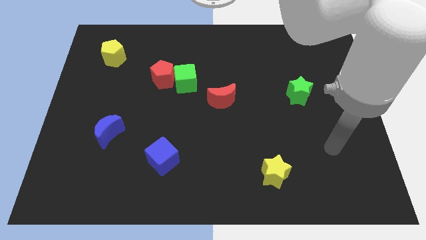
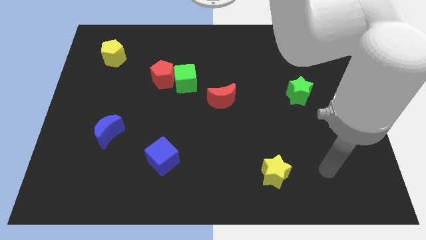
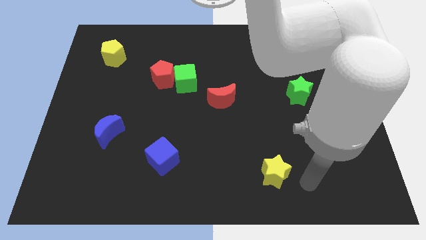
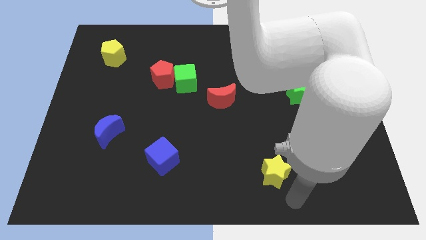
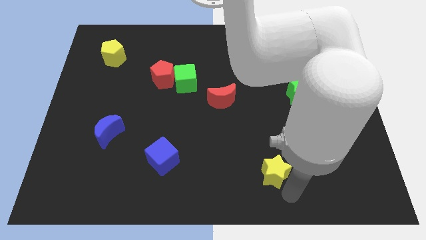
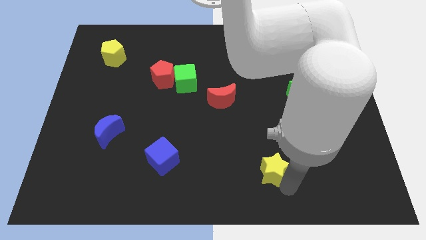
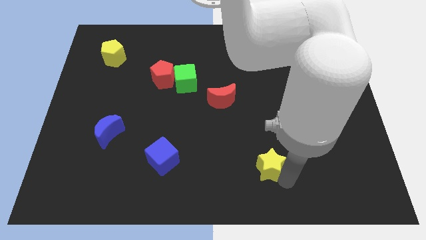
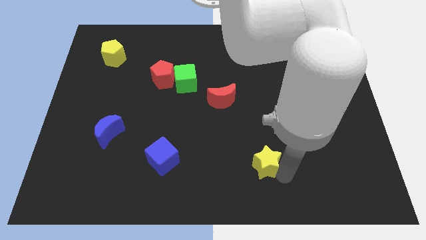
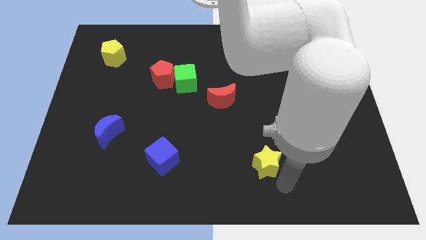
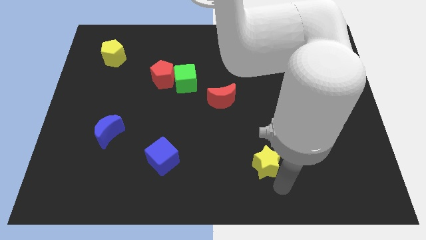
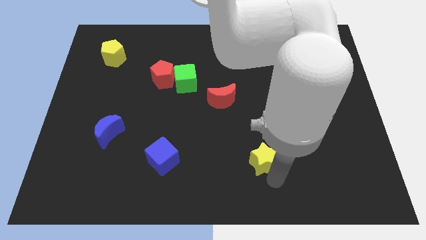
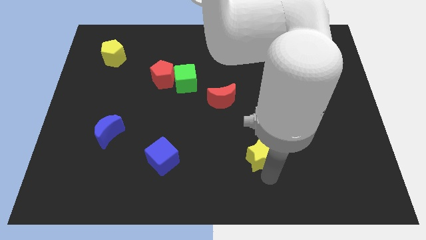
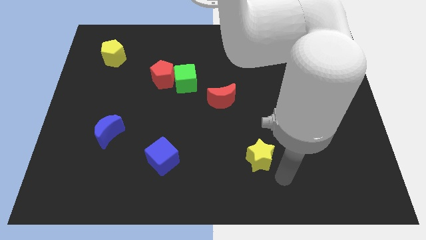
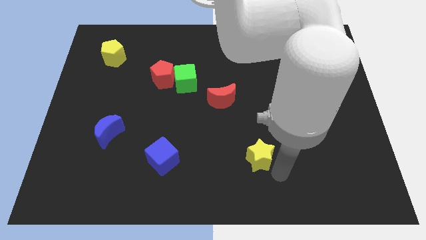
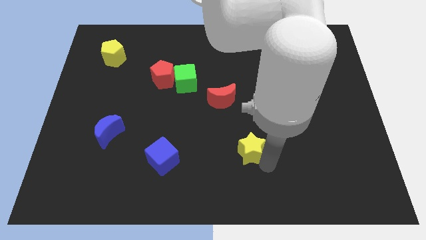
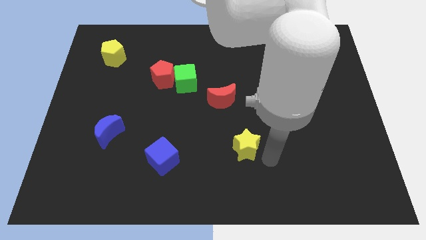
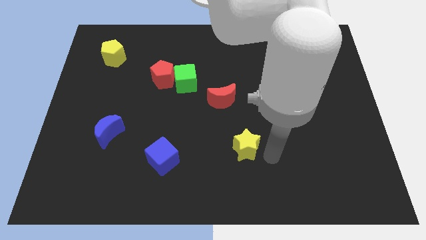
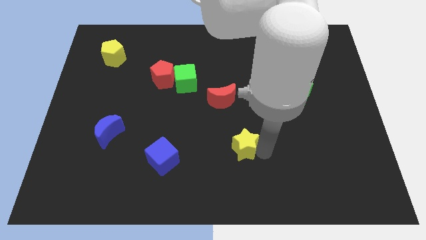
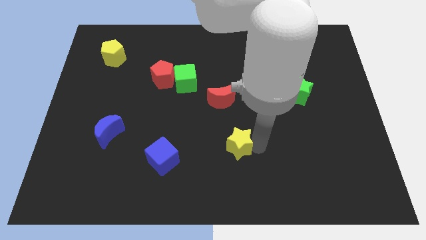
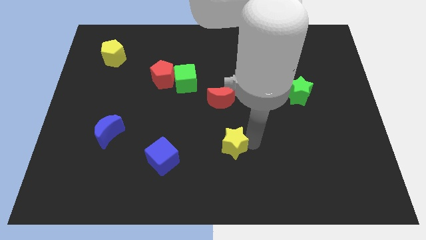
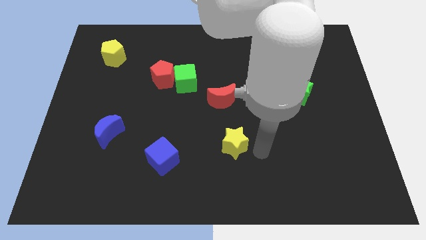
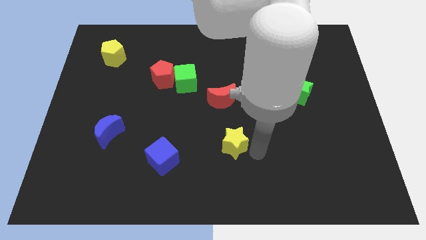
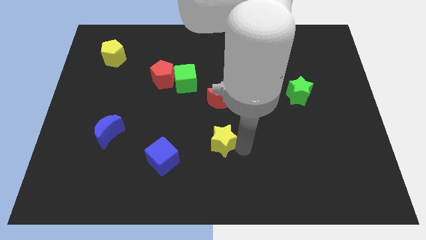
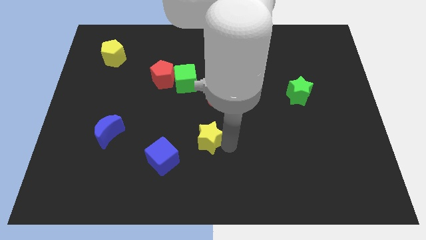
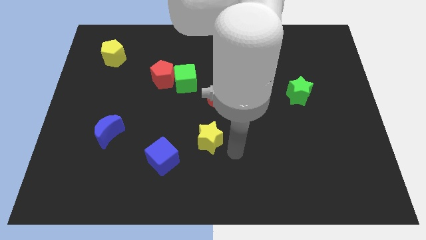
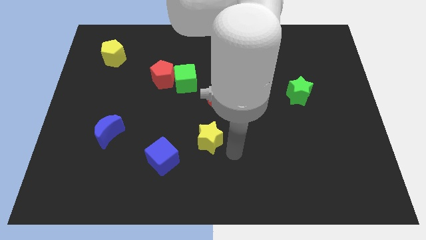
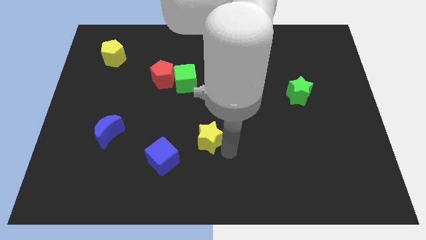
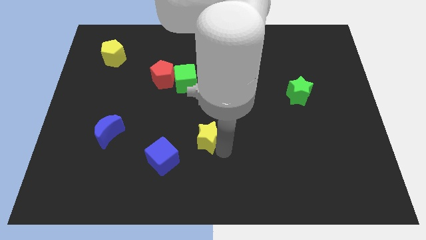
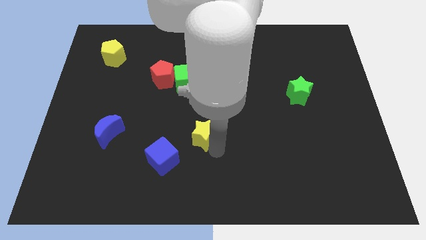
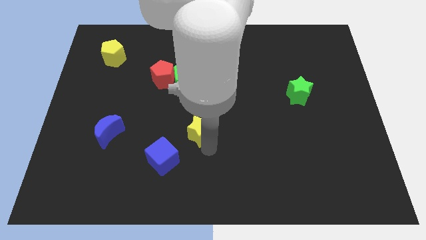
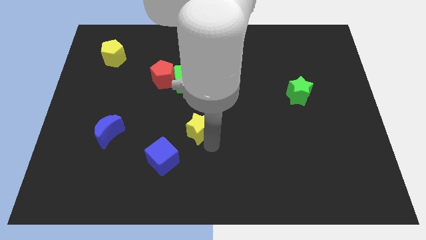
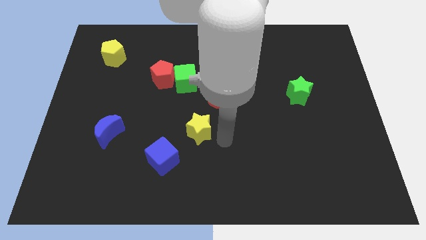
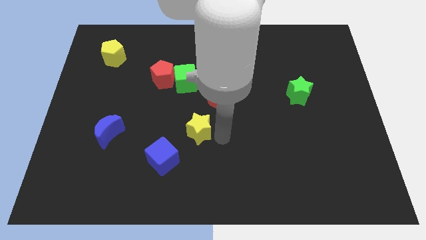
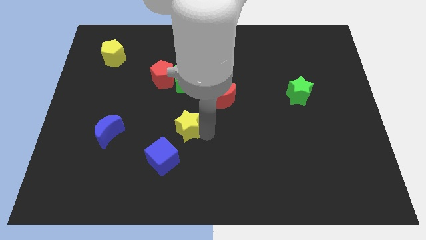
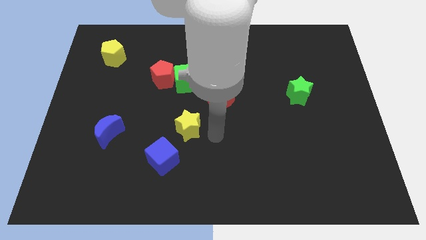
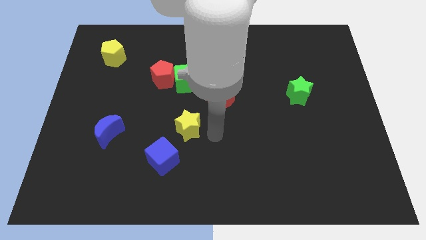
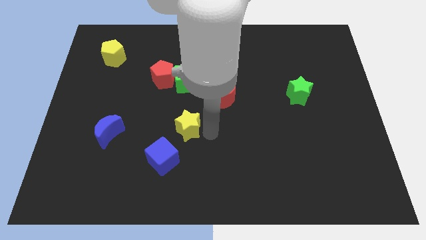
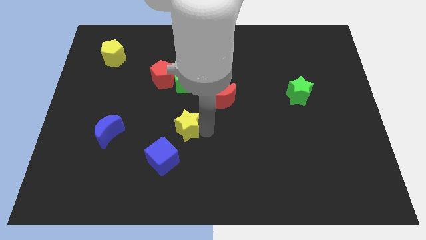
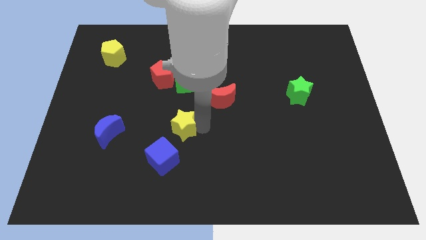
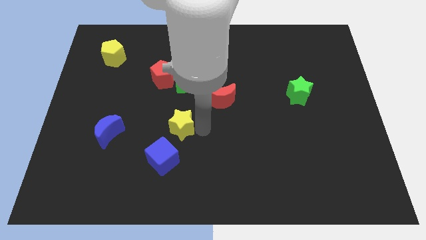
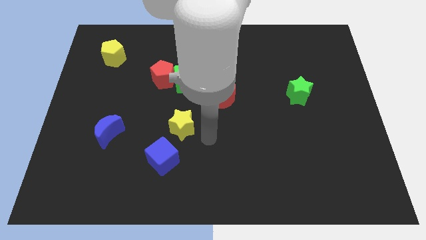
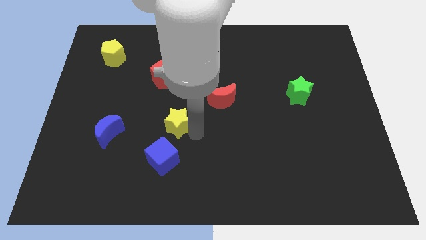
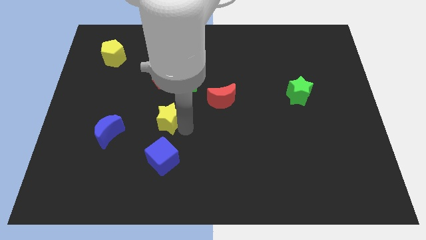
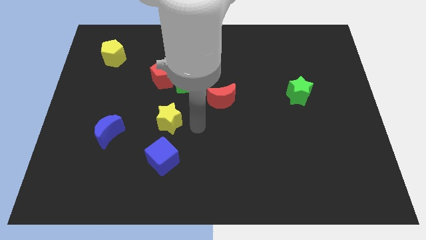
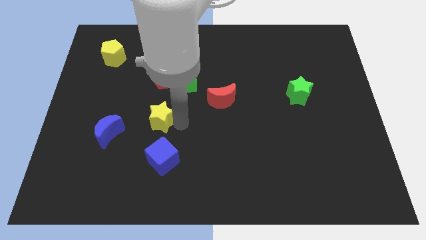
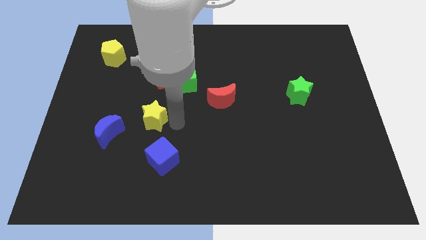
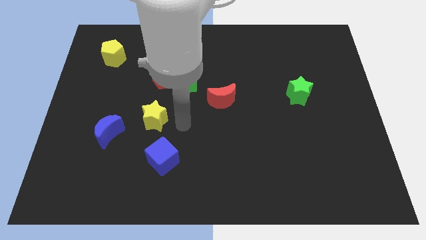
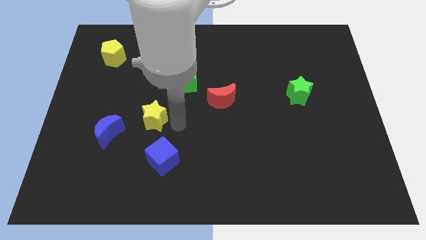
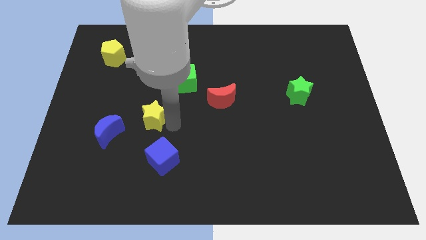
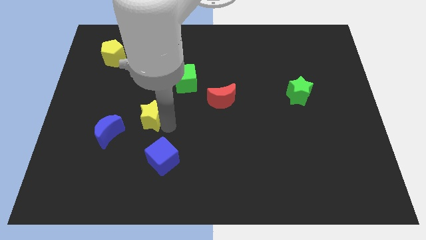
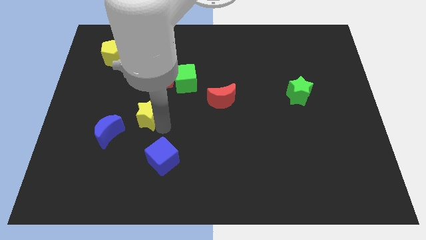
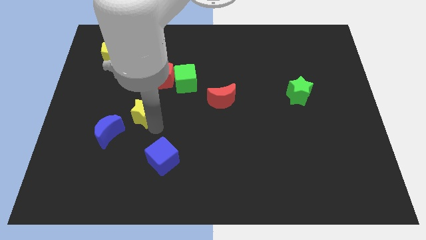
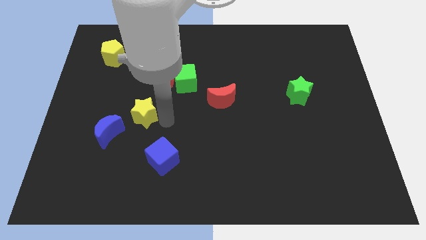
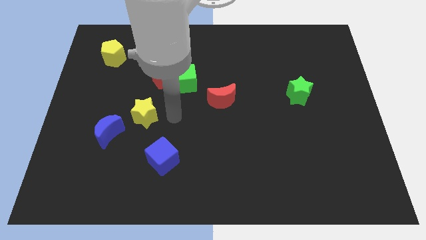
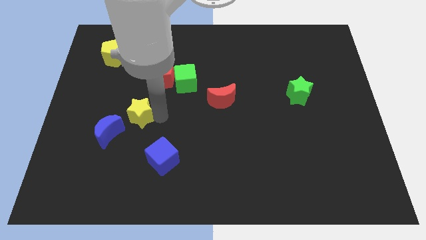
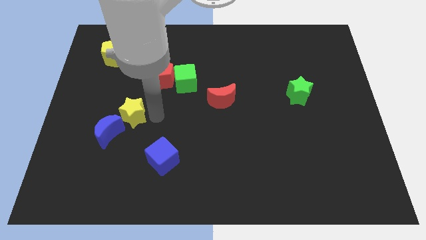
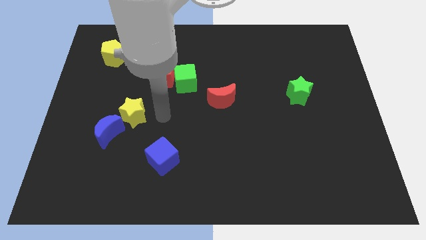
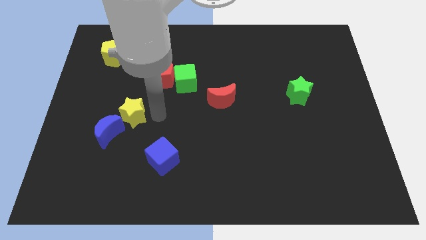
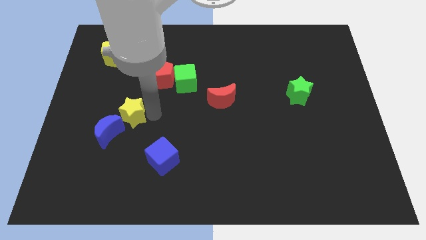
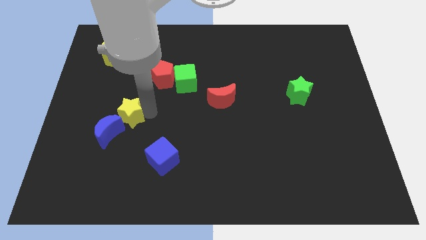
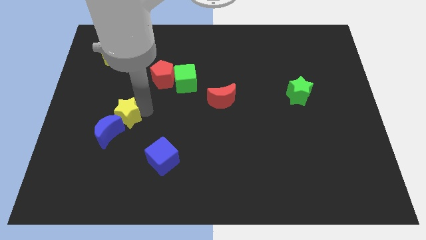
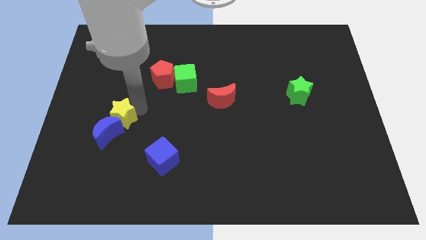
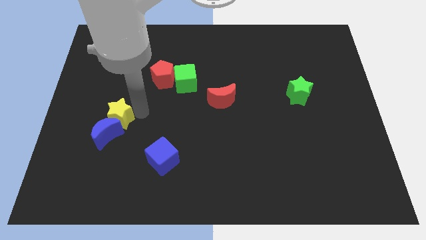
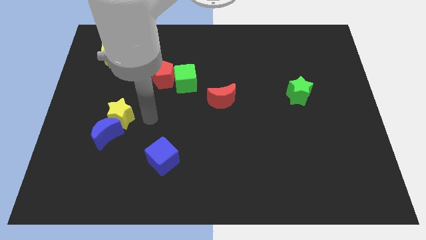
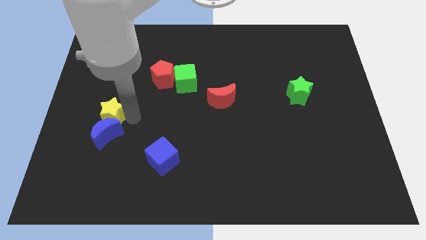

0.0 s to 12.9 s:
slide the yellow star to the top left side of the blue moon

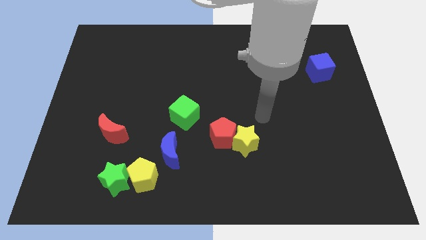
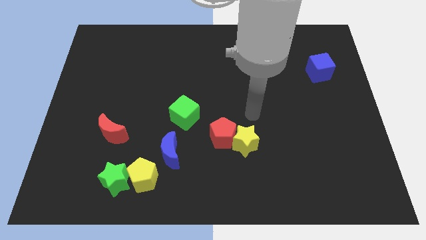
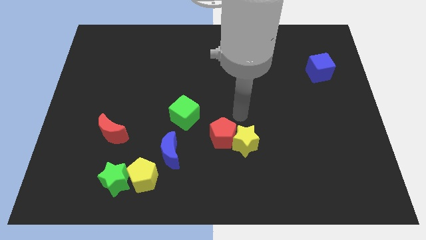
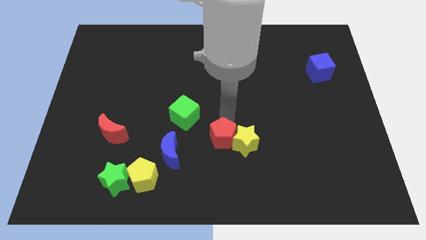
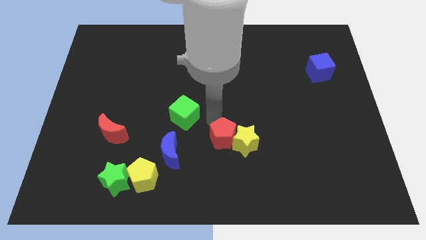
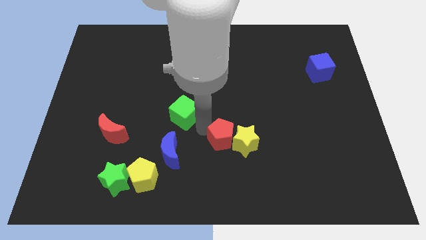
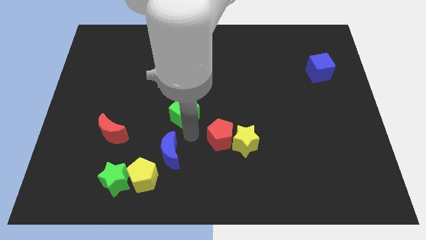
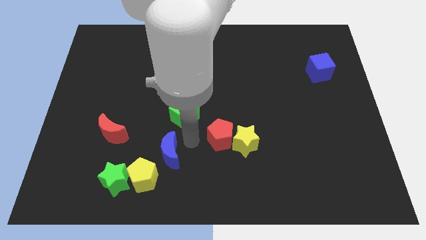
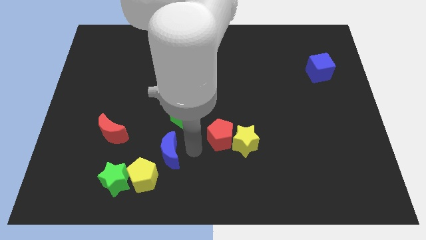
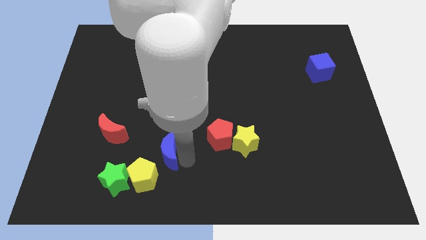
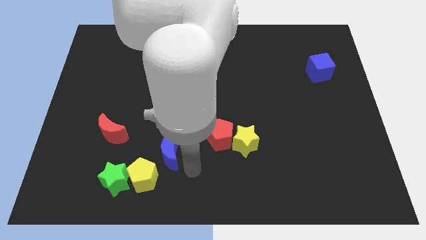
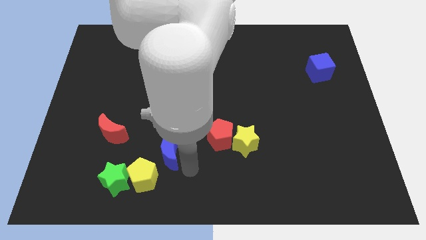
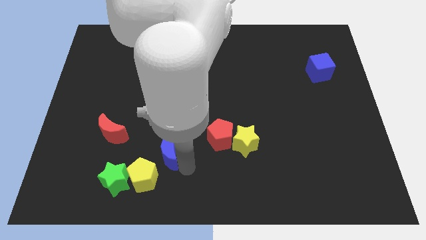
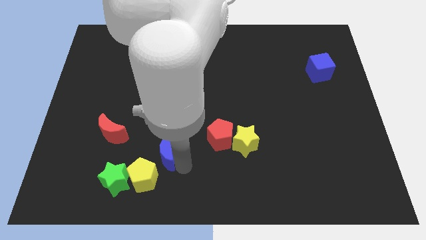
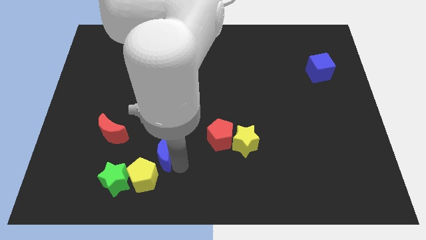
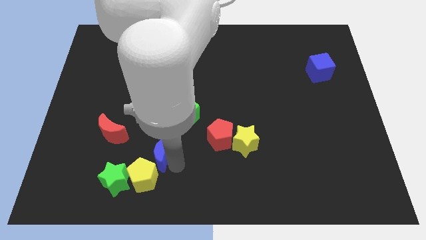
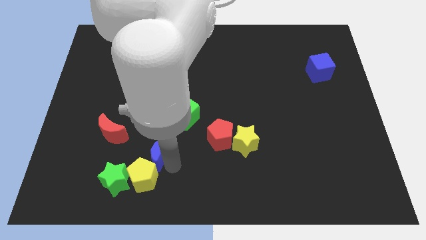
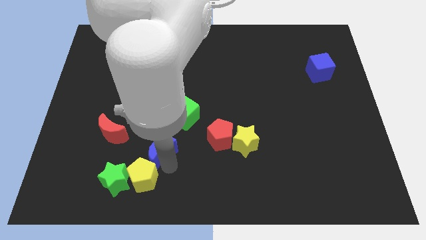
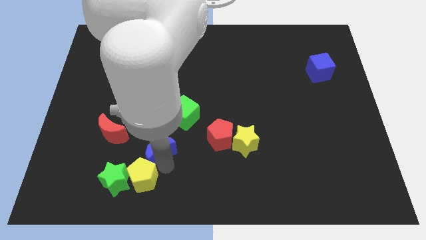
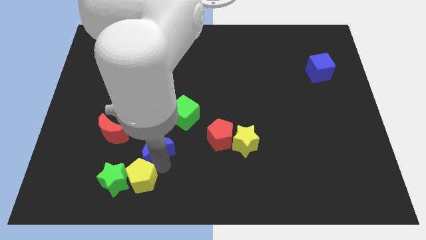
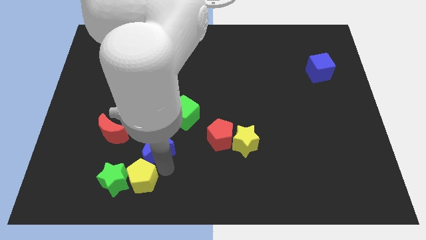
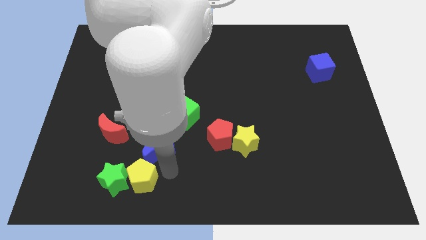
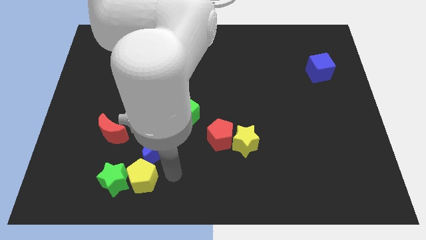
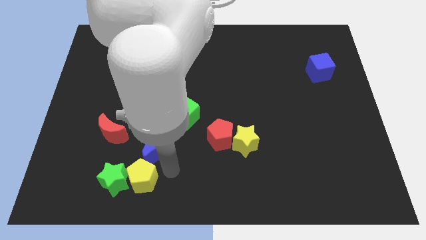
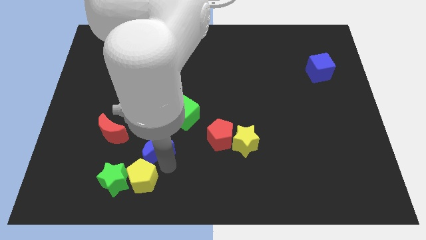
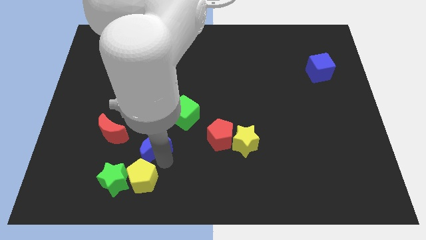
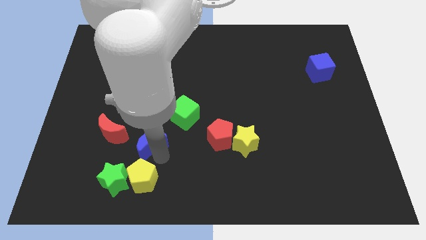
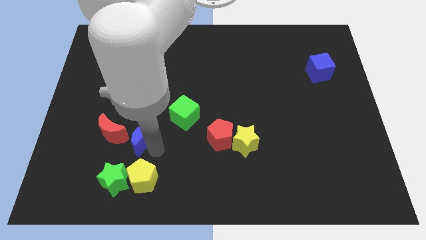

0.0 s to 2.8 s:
move the blue moon to the top of the green star
